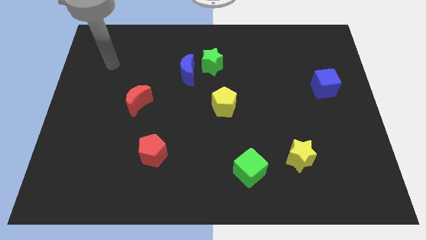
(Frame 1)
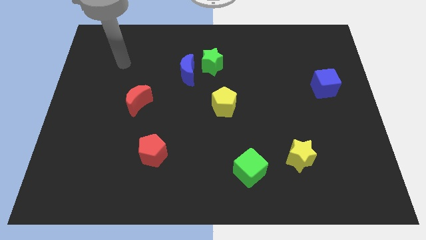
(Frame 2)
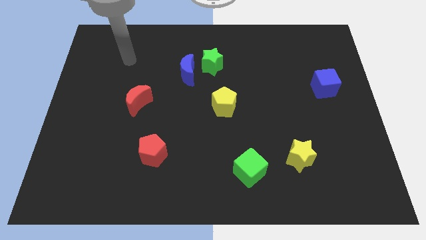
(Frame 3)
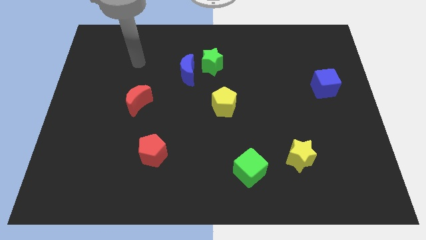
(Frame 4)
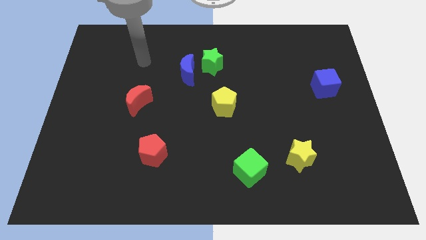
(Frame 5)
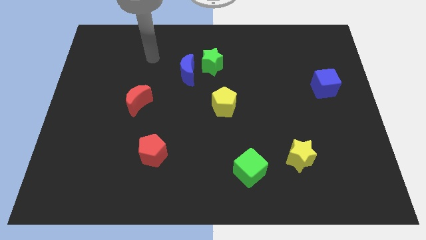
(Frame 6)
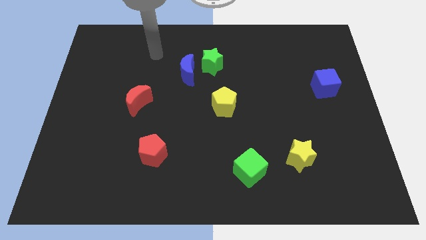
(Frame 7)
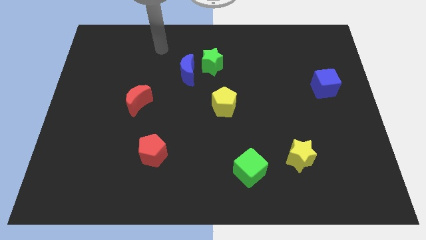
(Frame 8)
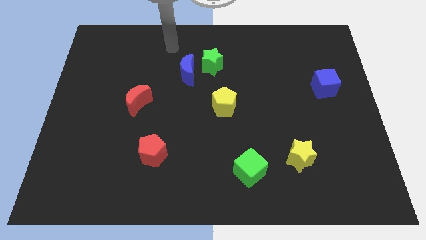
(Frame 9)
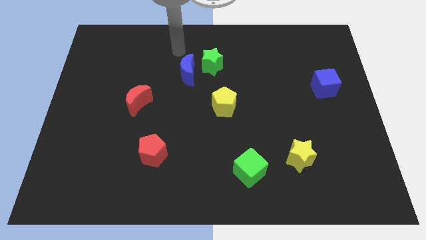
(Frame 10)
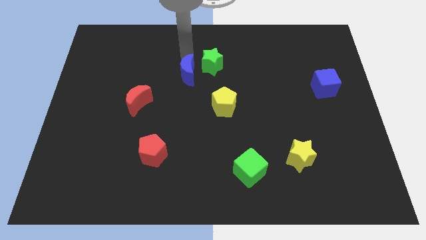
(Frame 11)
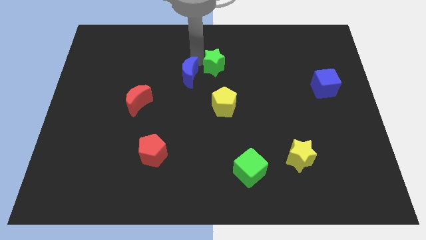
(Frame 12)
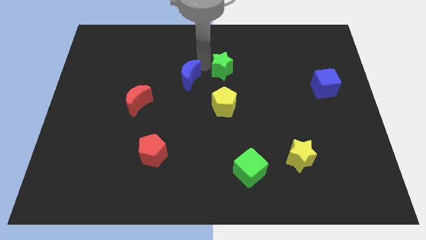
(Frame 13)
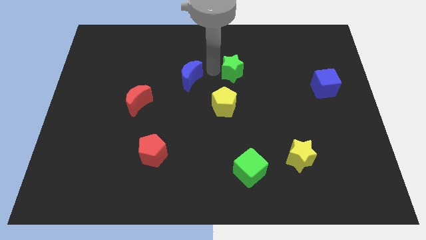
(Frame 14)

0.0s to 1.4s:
separate the blue moon from the green star

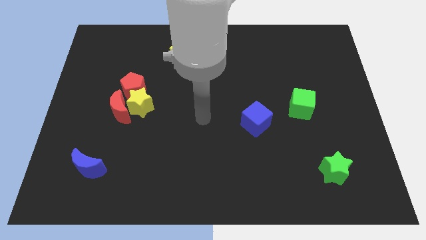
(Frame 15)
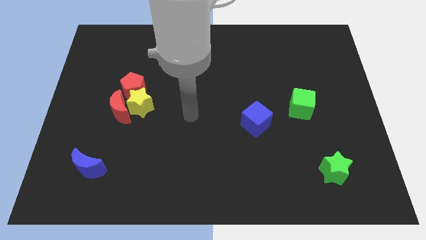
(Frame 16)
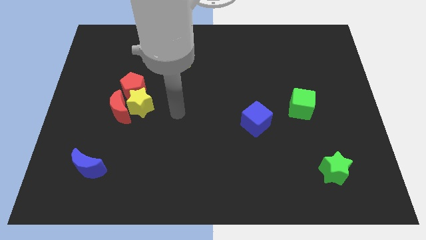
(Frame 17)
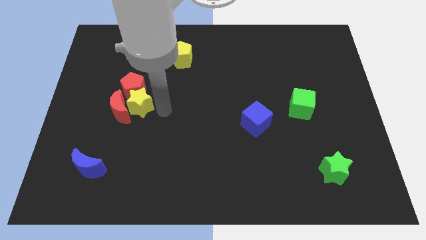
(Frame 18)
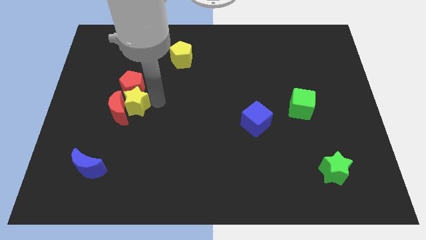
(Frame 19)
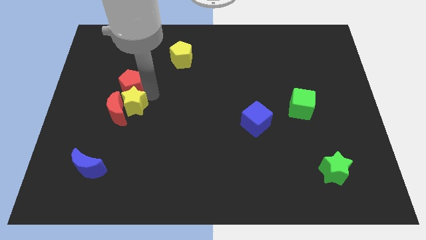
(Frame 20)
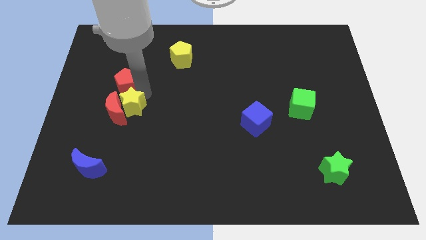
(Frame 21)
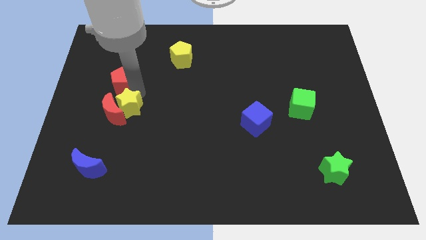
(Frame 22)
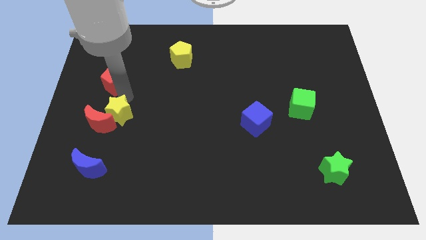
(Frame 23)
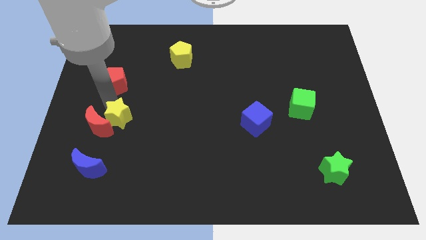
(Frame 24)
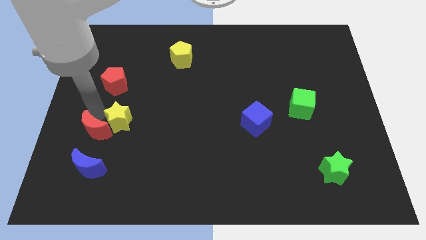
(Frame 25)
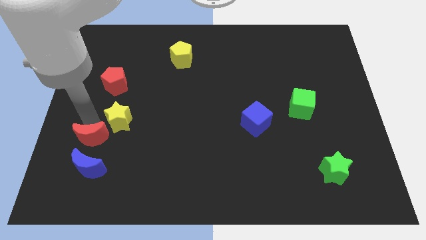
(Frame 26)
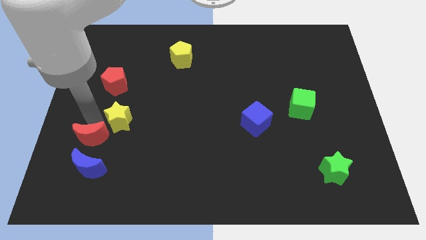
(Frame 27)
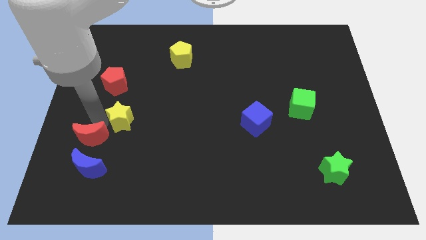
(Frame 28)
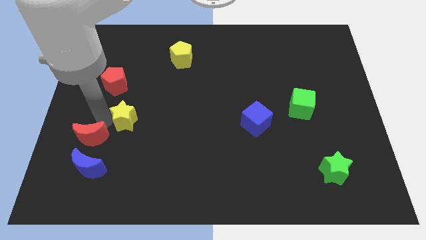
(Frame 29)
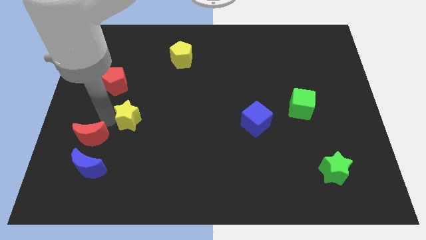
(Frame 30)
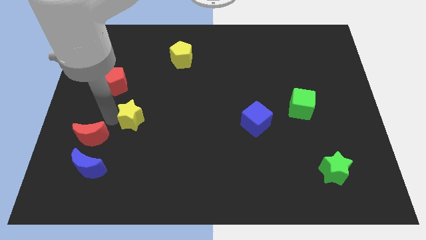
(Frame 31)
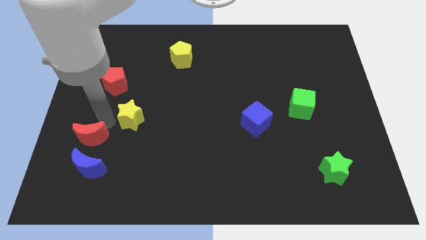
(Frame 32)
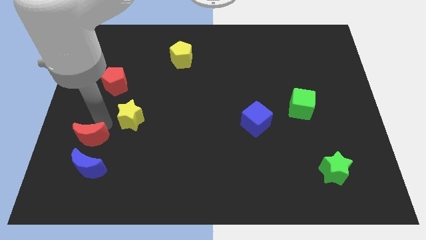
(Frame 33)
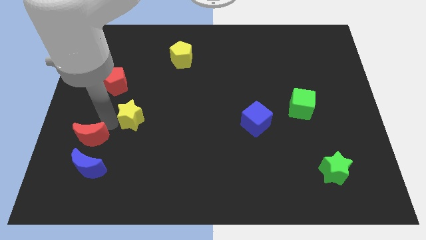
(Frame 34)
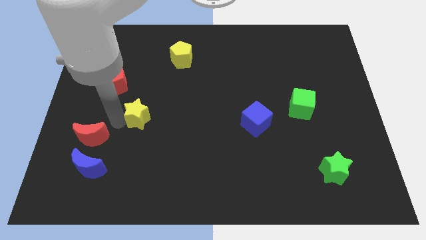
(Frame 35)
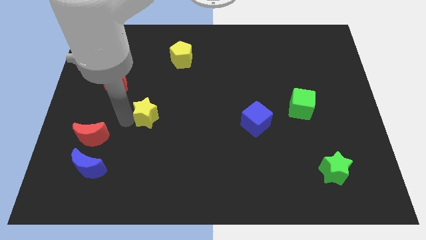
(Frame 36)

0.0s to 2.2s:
pull the yellow star apart from the red moon and red pentagon

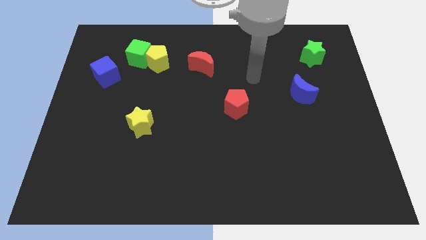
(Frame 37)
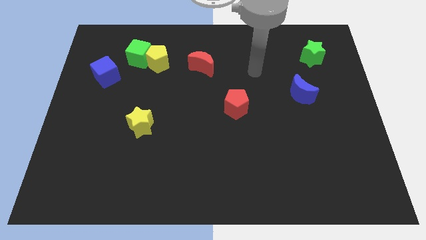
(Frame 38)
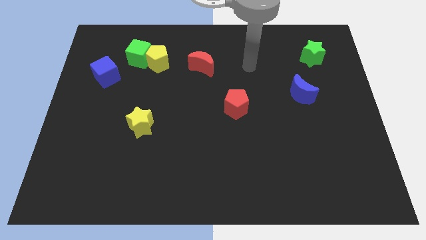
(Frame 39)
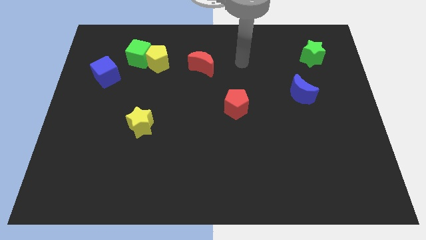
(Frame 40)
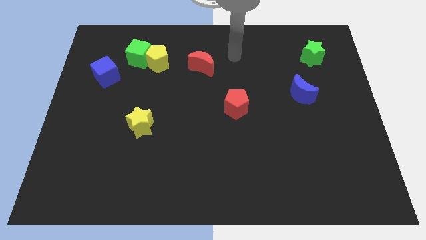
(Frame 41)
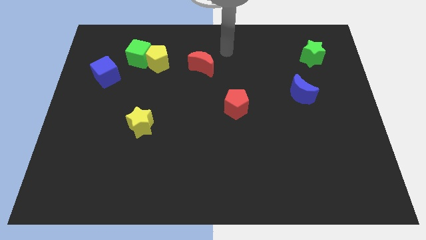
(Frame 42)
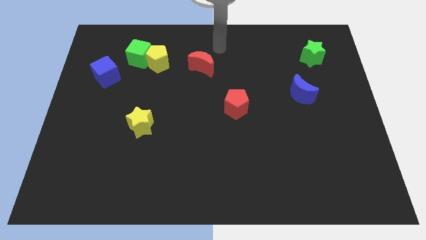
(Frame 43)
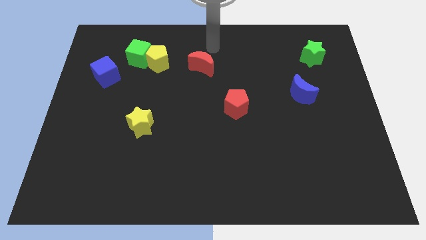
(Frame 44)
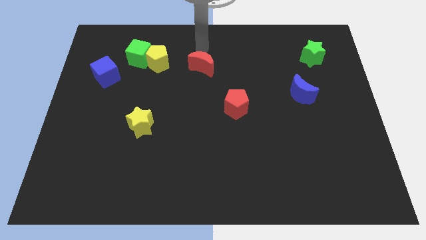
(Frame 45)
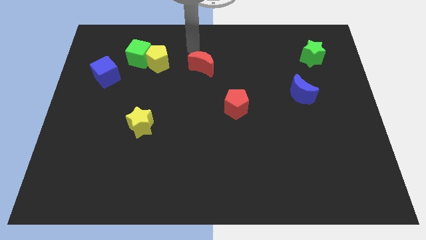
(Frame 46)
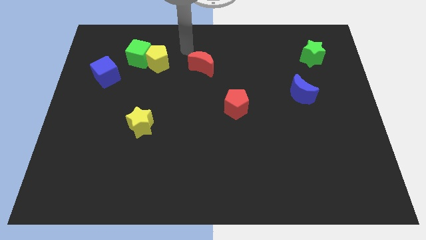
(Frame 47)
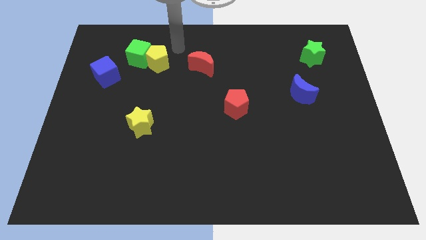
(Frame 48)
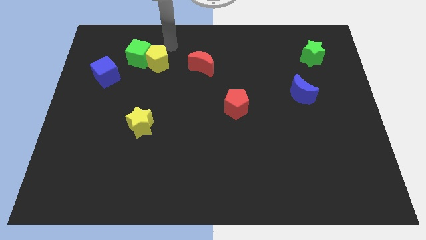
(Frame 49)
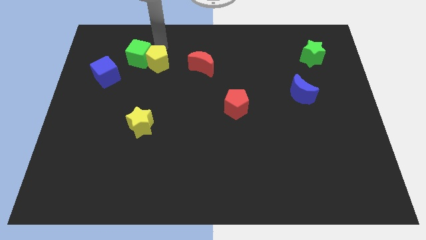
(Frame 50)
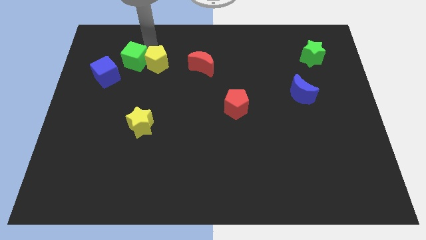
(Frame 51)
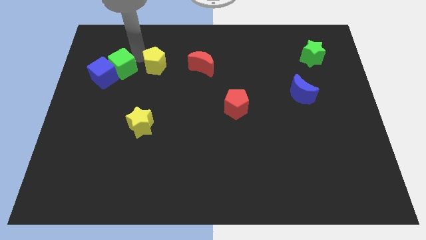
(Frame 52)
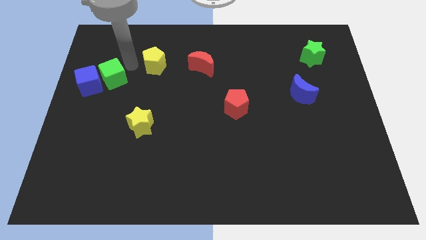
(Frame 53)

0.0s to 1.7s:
separate the yellow pentagon from the green cube

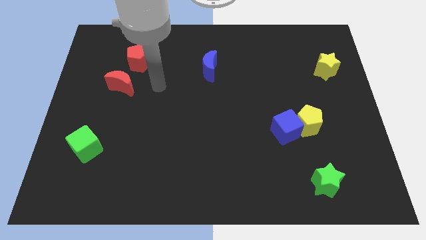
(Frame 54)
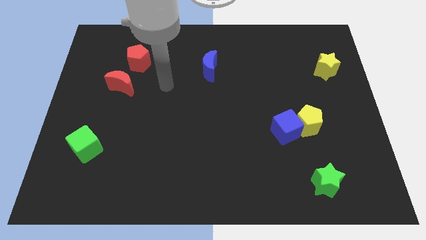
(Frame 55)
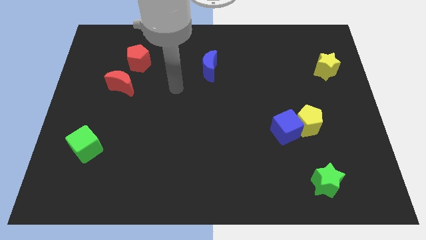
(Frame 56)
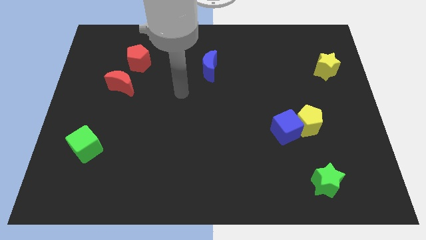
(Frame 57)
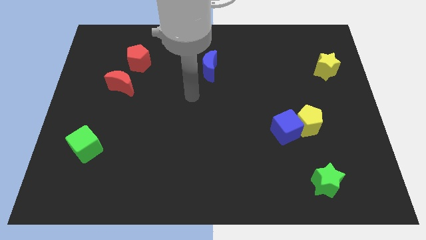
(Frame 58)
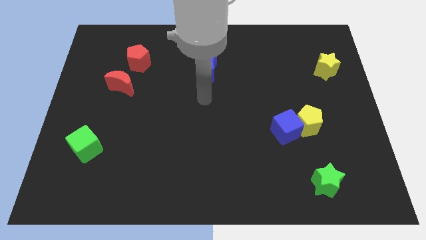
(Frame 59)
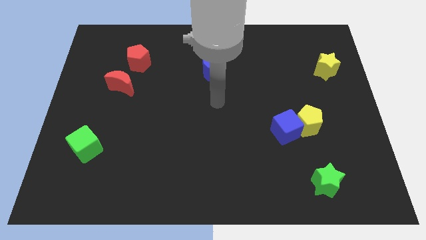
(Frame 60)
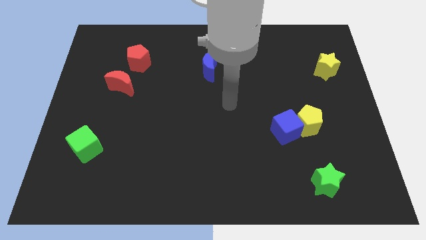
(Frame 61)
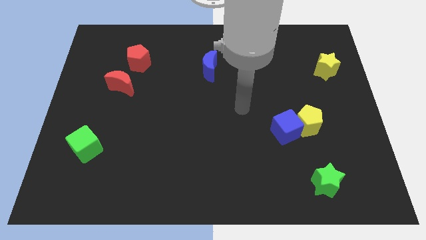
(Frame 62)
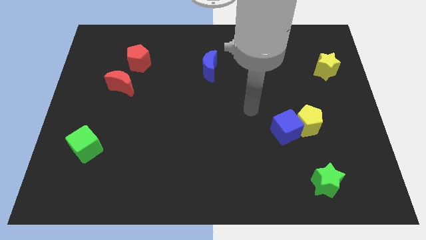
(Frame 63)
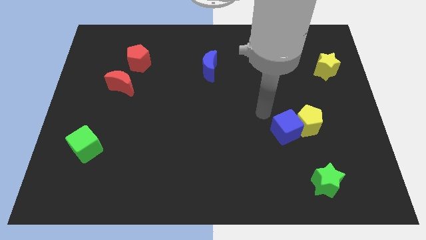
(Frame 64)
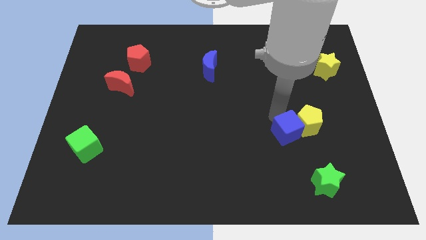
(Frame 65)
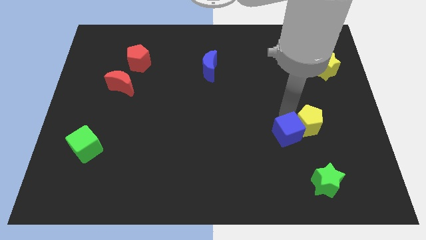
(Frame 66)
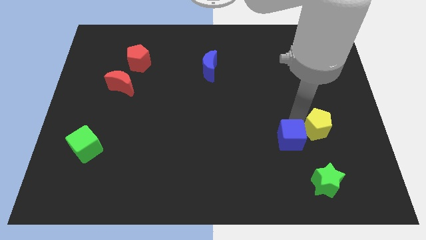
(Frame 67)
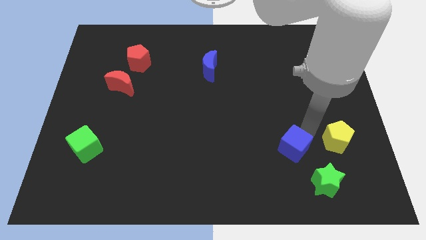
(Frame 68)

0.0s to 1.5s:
move the blue cube away from the yellow pentagon

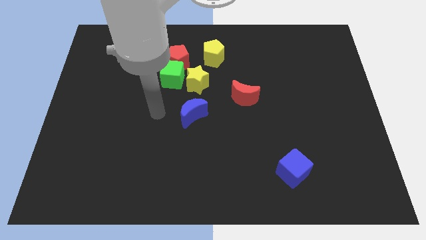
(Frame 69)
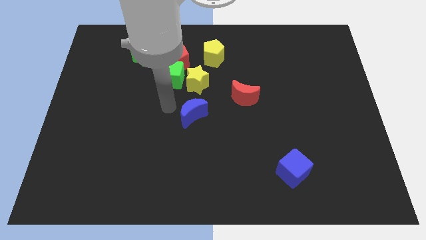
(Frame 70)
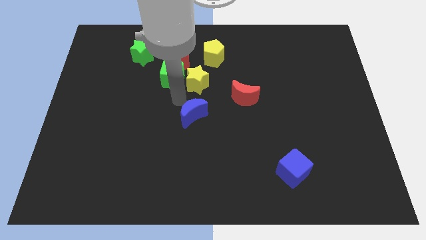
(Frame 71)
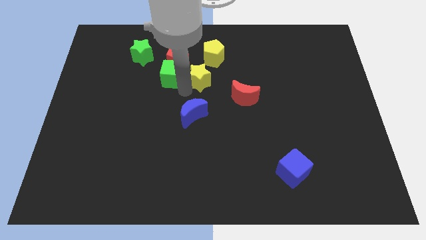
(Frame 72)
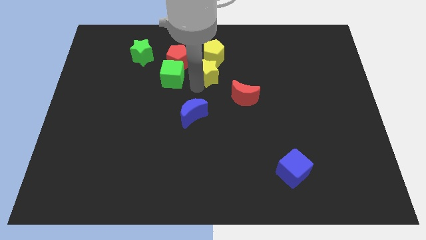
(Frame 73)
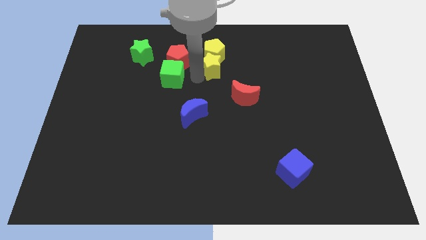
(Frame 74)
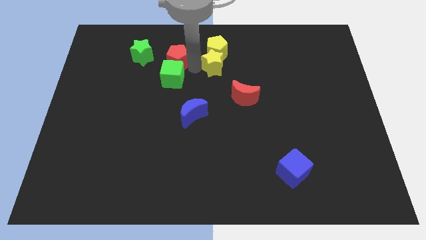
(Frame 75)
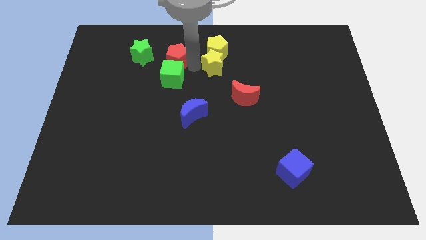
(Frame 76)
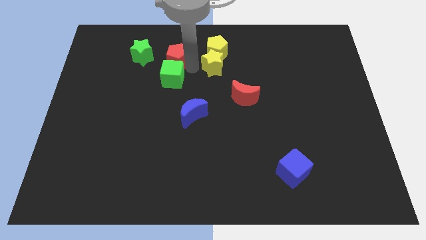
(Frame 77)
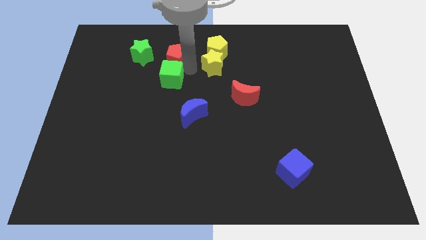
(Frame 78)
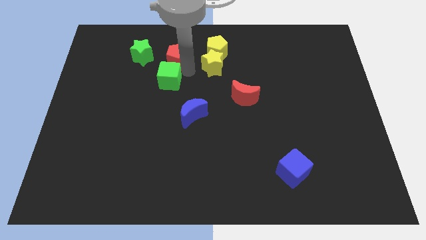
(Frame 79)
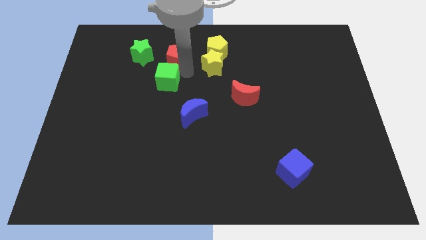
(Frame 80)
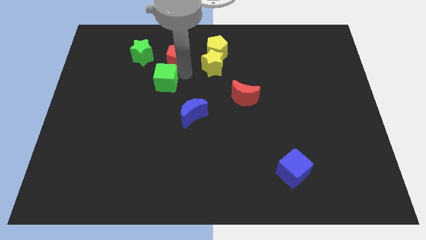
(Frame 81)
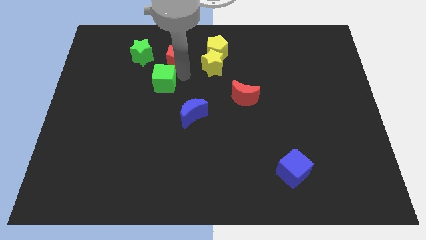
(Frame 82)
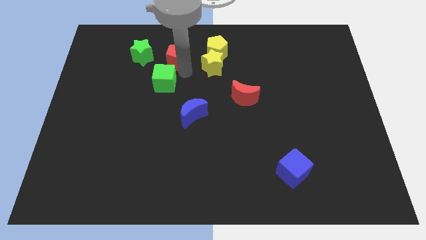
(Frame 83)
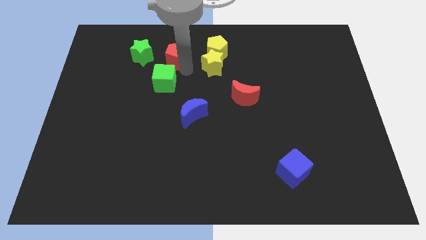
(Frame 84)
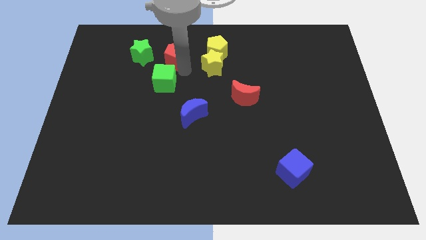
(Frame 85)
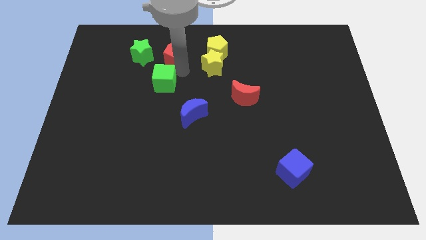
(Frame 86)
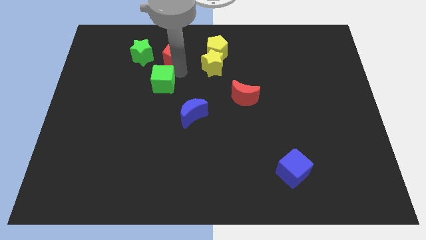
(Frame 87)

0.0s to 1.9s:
pull the green cube apart from the red pentagon and yellow star

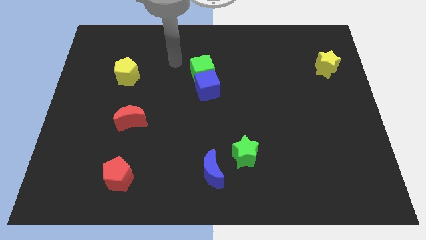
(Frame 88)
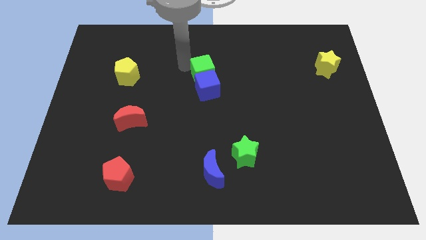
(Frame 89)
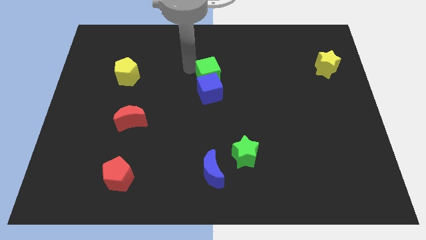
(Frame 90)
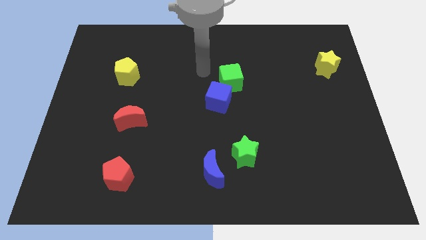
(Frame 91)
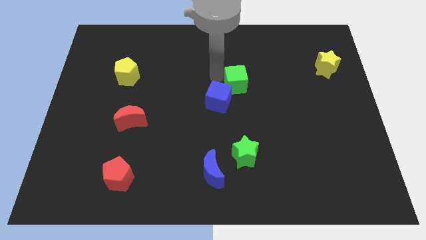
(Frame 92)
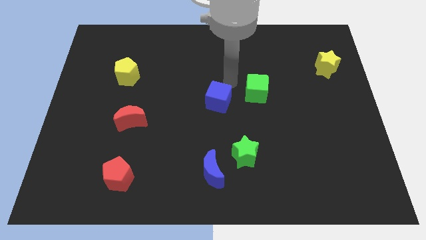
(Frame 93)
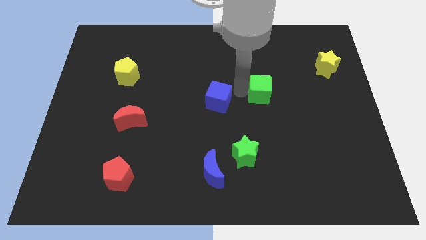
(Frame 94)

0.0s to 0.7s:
separate the blue cube from the green cube
